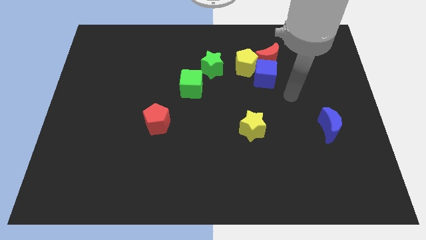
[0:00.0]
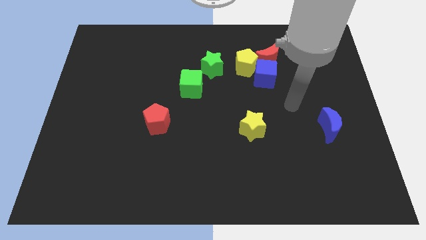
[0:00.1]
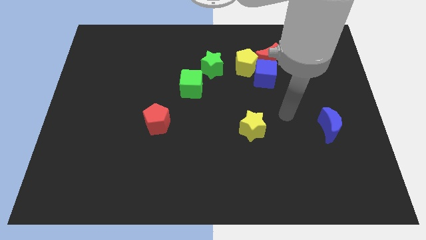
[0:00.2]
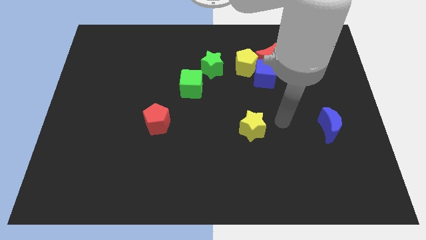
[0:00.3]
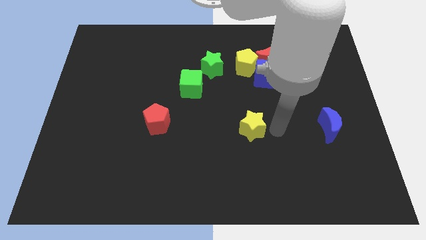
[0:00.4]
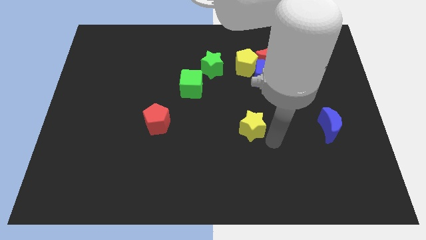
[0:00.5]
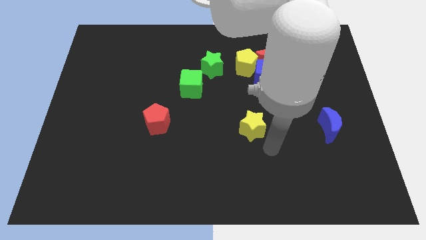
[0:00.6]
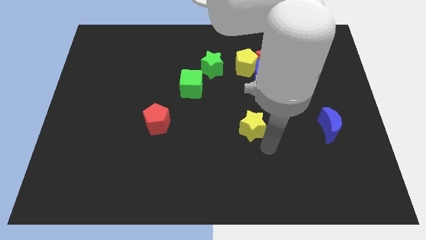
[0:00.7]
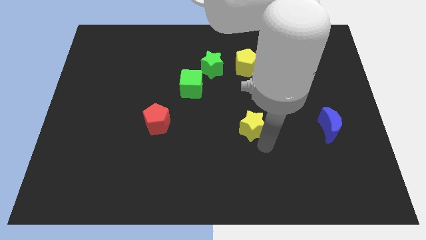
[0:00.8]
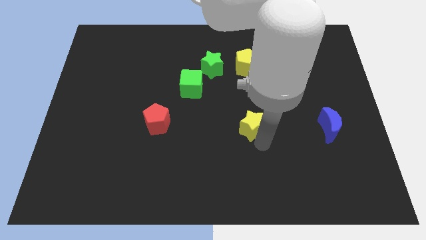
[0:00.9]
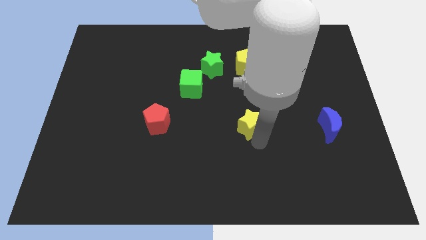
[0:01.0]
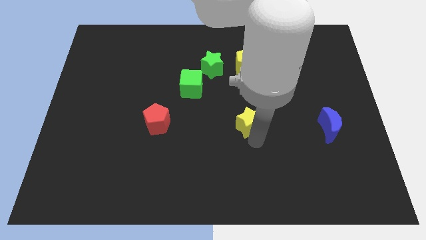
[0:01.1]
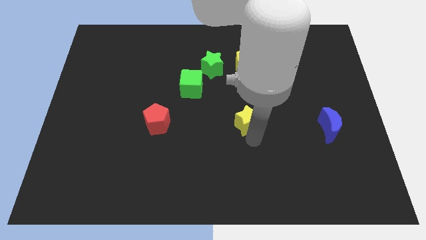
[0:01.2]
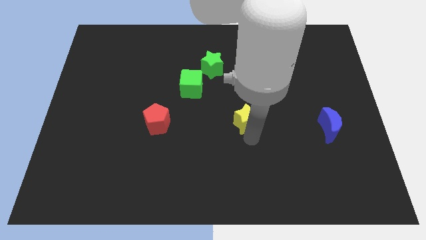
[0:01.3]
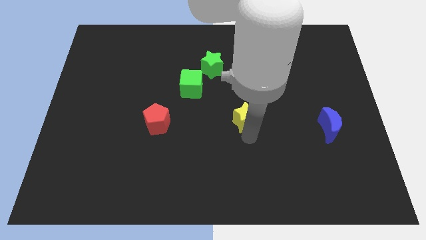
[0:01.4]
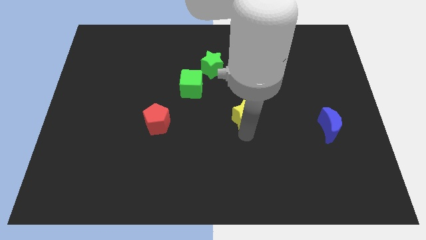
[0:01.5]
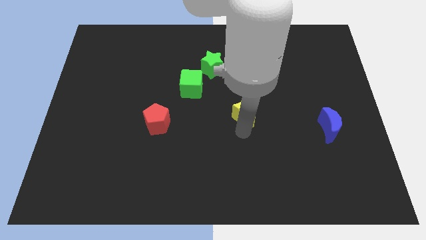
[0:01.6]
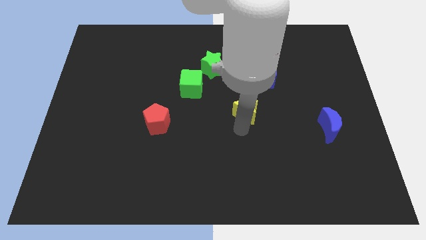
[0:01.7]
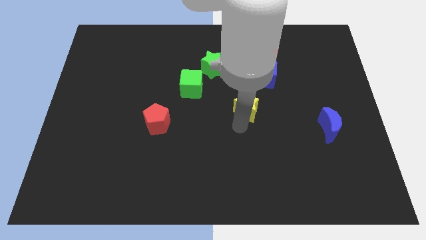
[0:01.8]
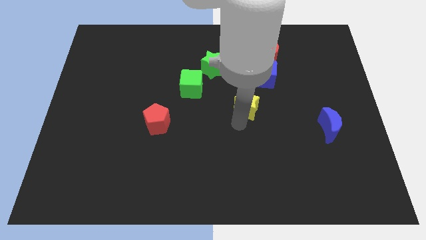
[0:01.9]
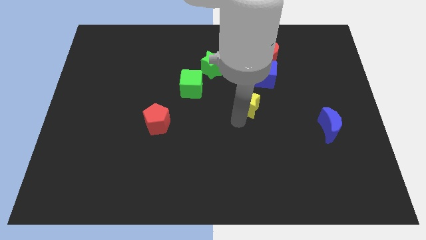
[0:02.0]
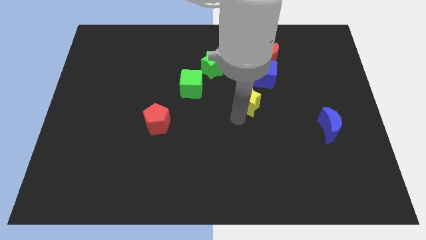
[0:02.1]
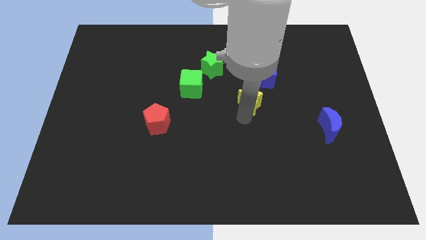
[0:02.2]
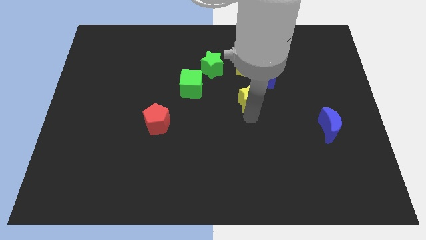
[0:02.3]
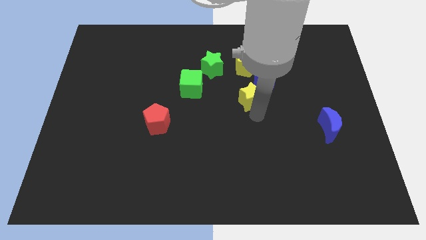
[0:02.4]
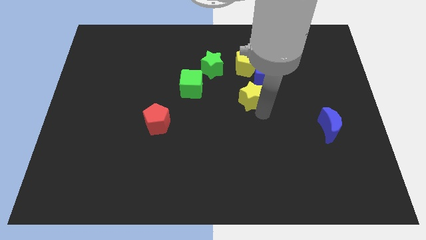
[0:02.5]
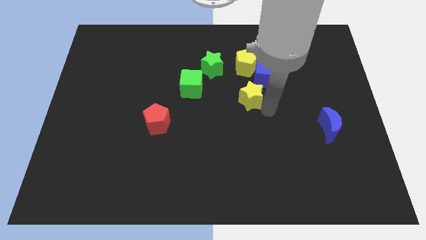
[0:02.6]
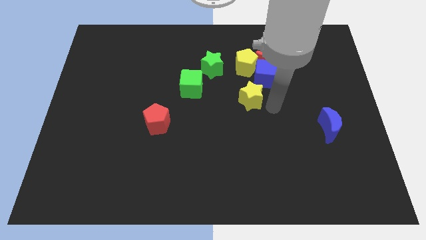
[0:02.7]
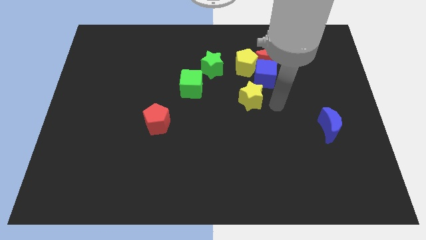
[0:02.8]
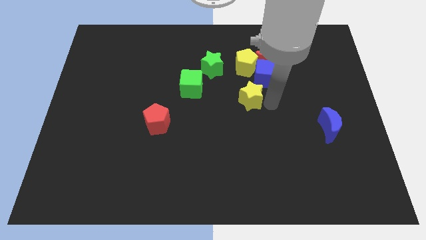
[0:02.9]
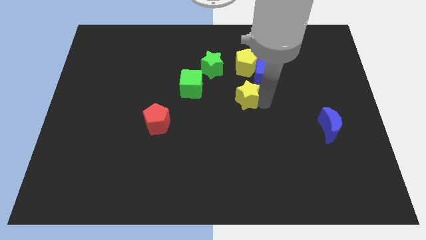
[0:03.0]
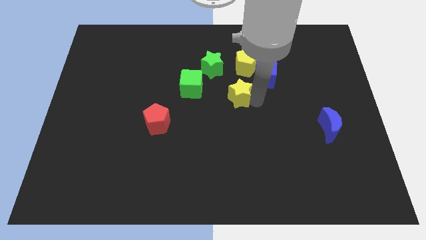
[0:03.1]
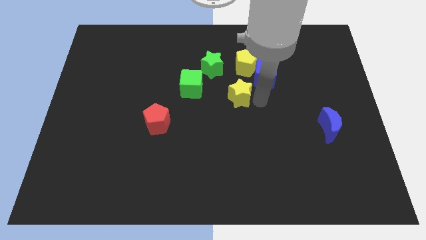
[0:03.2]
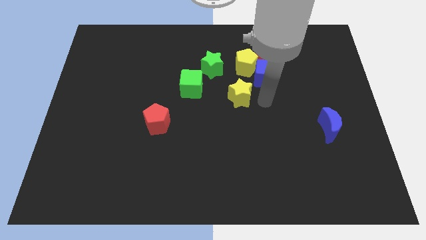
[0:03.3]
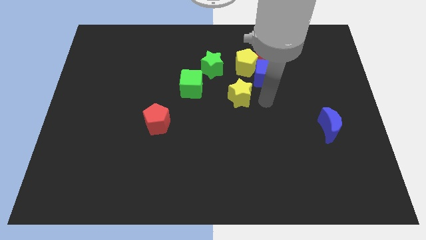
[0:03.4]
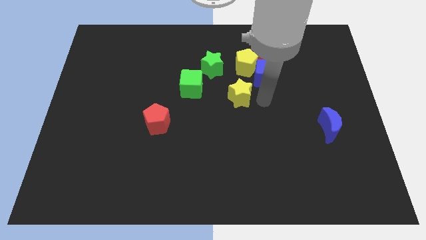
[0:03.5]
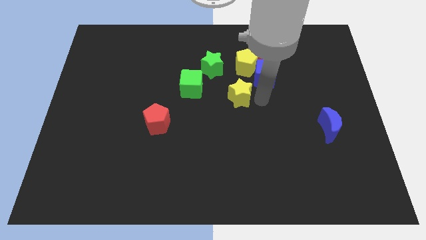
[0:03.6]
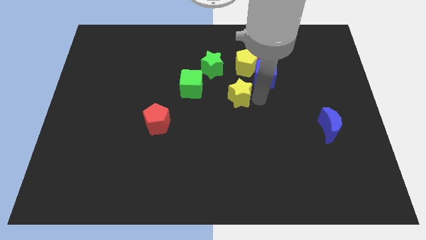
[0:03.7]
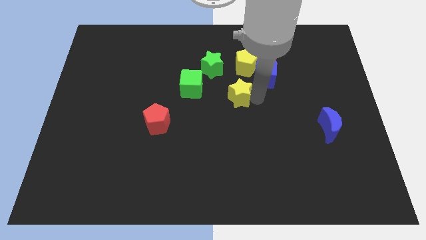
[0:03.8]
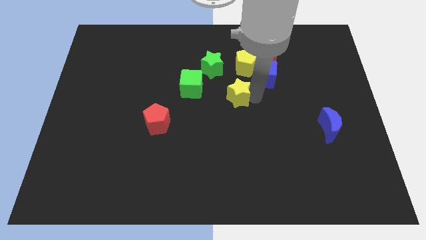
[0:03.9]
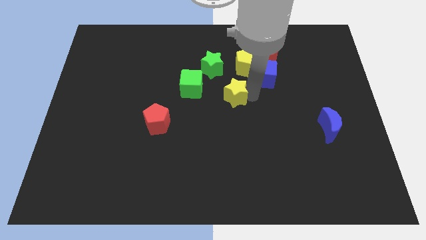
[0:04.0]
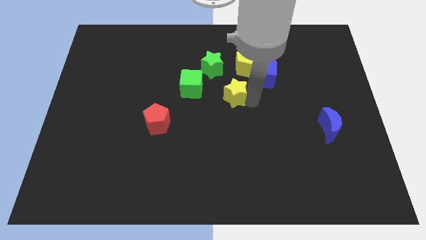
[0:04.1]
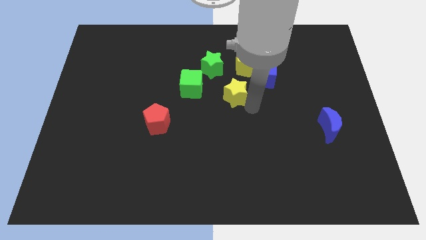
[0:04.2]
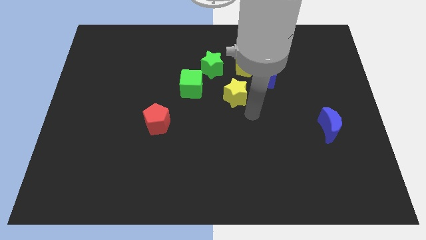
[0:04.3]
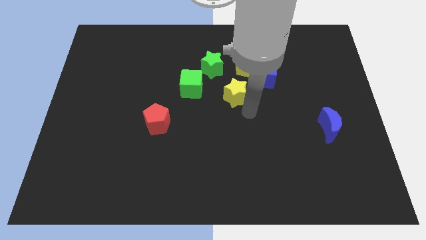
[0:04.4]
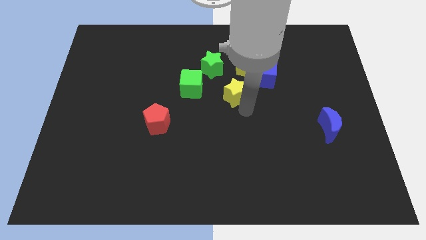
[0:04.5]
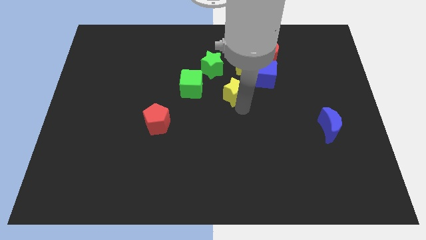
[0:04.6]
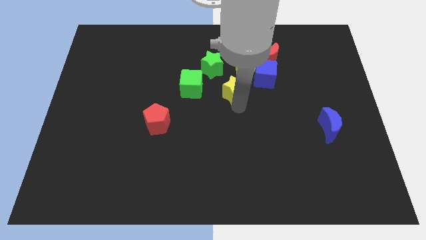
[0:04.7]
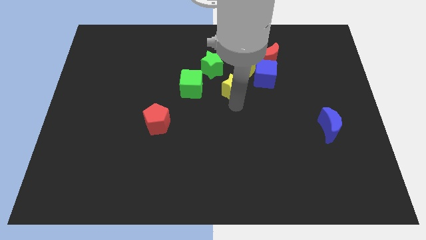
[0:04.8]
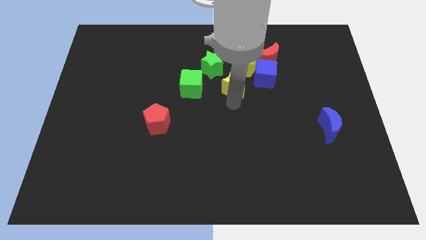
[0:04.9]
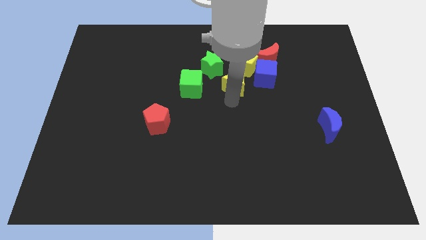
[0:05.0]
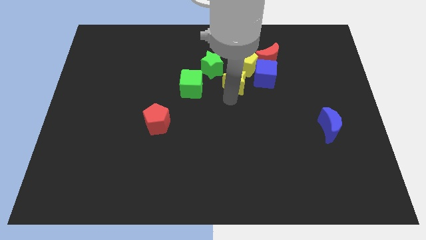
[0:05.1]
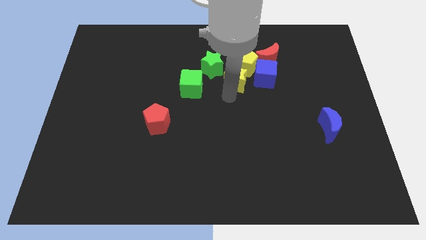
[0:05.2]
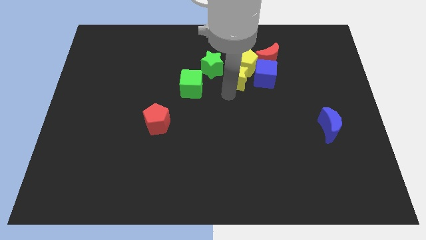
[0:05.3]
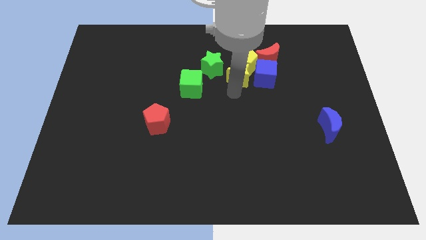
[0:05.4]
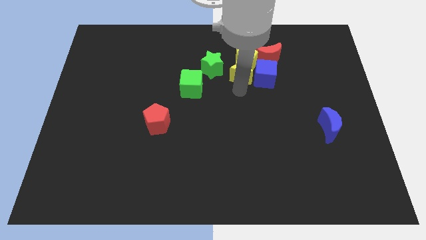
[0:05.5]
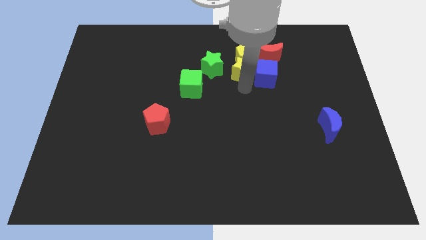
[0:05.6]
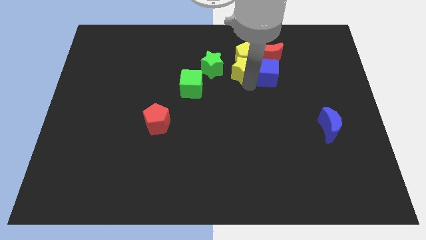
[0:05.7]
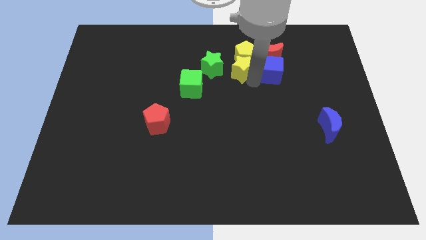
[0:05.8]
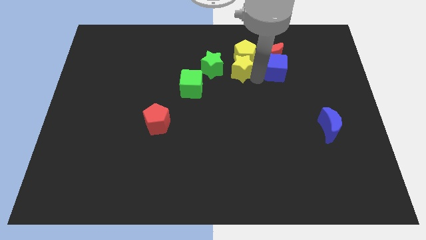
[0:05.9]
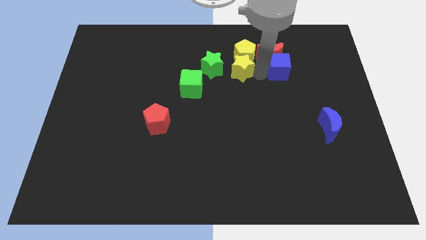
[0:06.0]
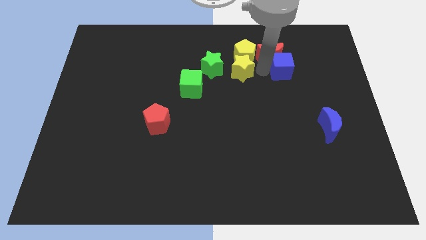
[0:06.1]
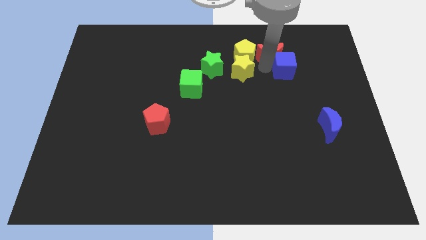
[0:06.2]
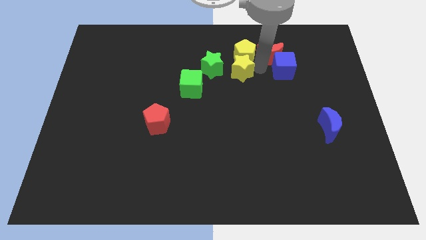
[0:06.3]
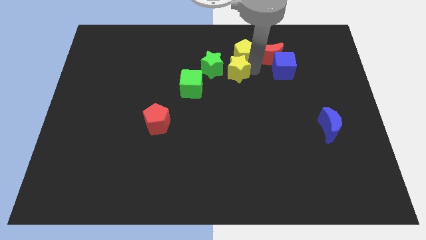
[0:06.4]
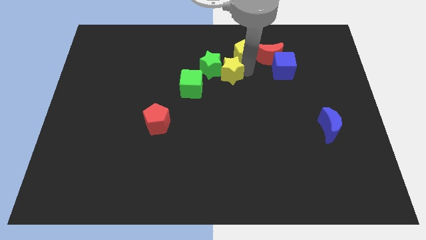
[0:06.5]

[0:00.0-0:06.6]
move the yellow star next to the green star

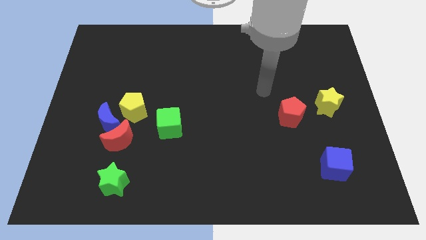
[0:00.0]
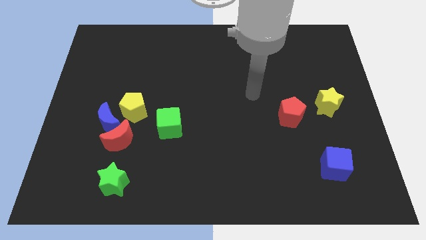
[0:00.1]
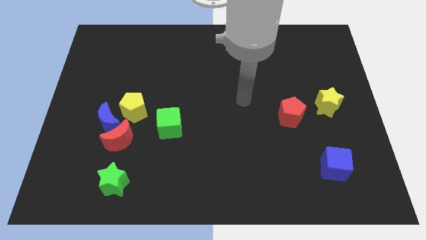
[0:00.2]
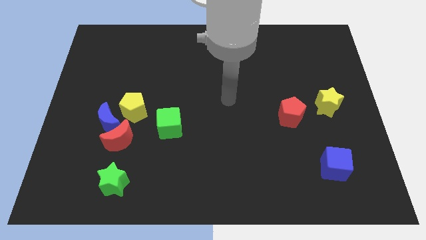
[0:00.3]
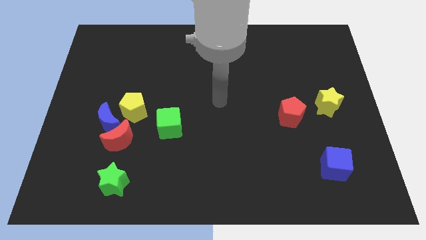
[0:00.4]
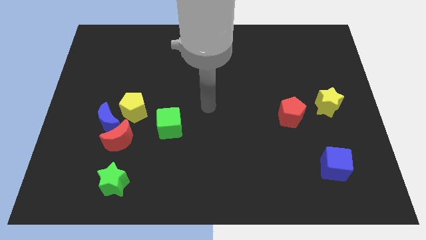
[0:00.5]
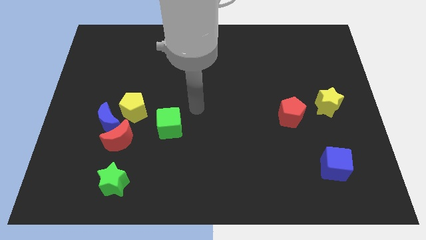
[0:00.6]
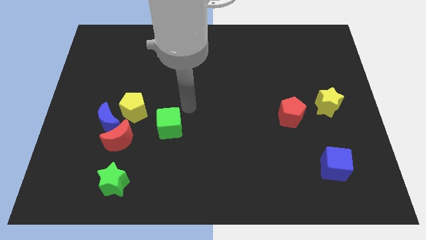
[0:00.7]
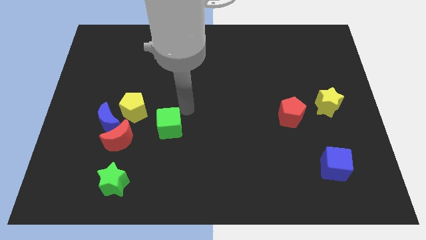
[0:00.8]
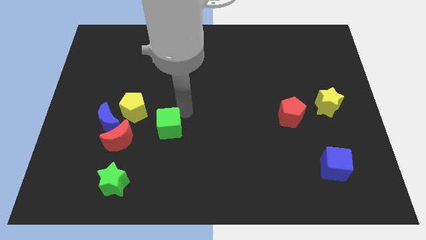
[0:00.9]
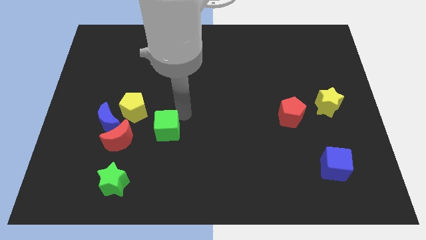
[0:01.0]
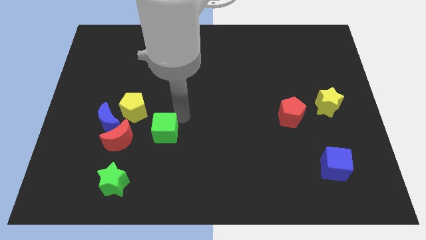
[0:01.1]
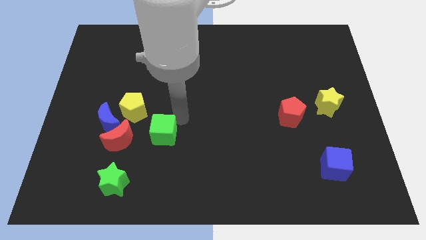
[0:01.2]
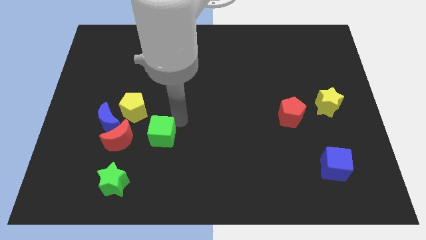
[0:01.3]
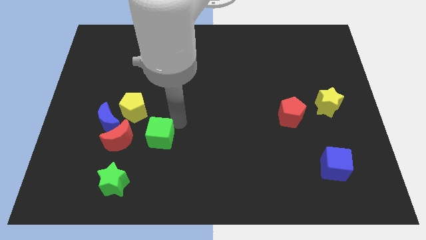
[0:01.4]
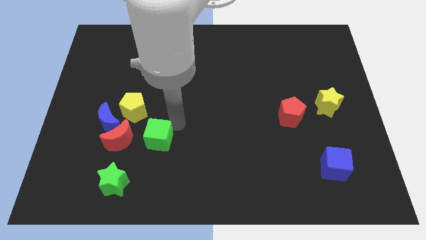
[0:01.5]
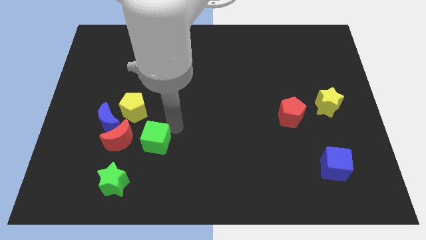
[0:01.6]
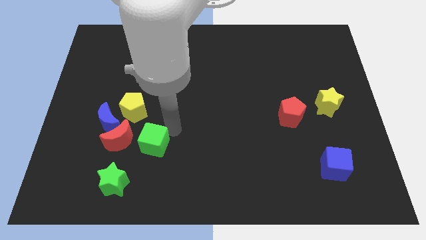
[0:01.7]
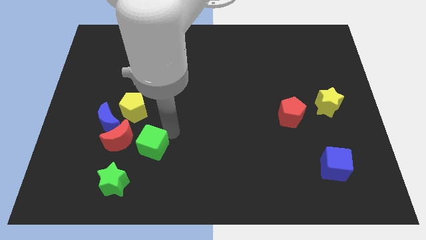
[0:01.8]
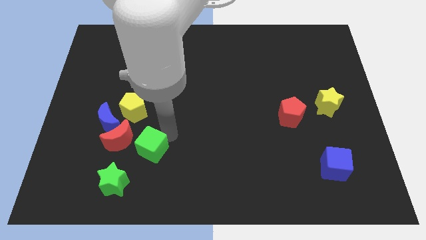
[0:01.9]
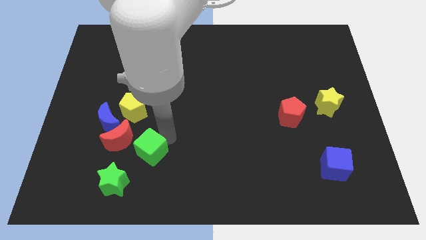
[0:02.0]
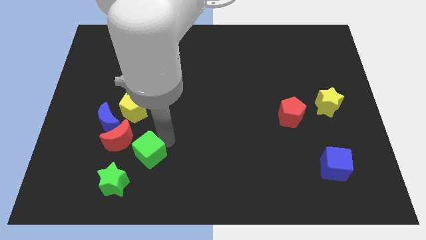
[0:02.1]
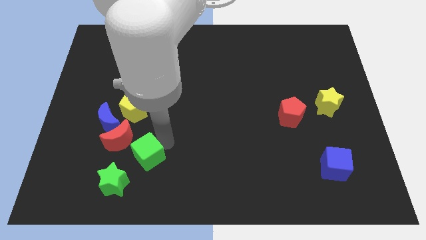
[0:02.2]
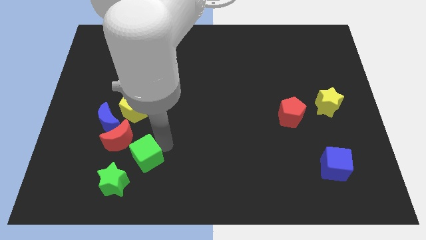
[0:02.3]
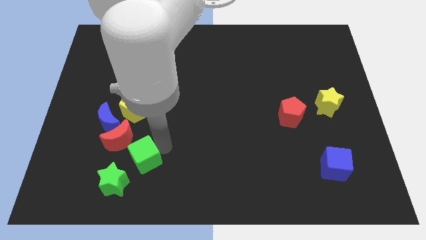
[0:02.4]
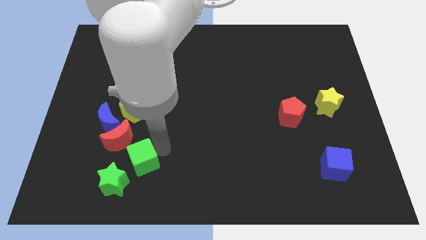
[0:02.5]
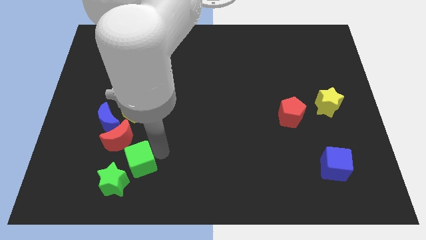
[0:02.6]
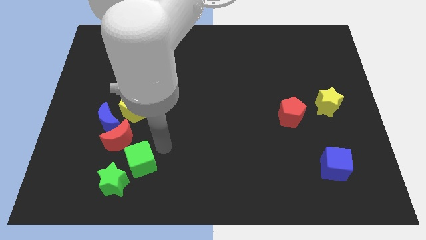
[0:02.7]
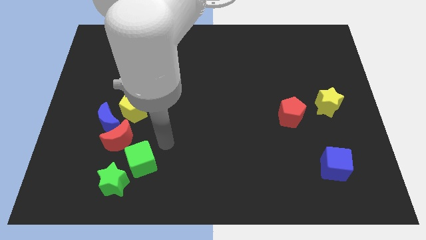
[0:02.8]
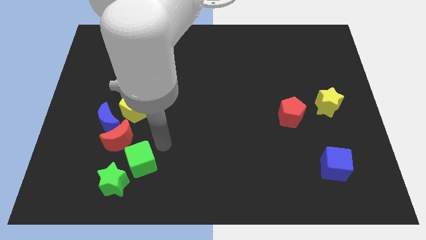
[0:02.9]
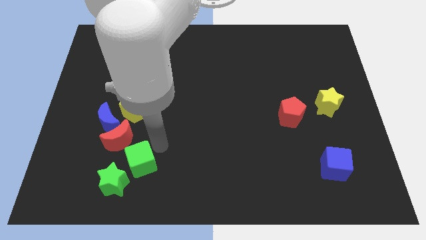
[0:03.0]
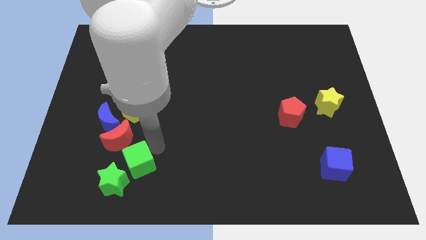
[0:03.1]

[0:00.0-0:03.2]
move the green cube close to the green star
